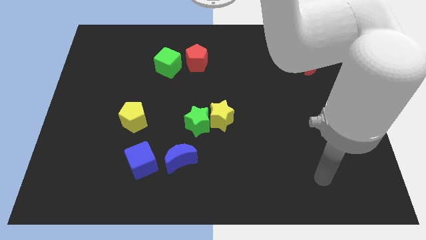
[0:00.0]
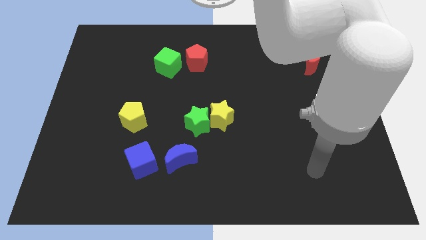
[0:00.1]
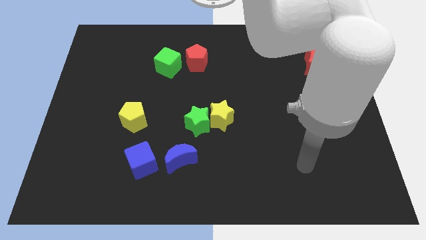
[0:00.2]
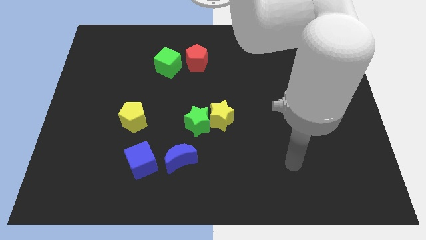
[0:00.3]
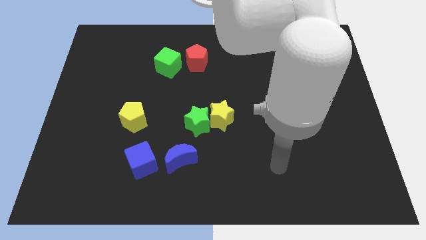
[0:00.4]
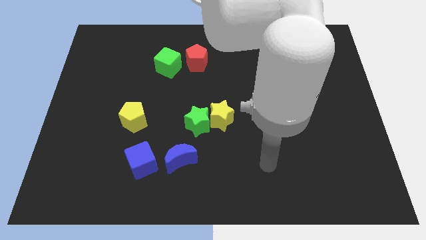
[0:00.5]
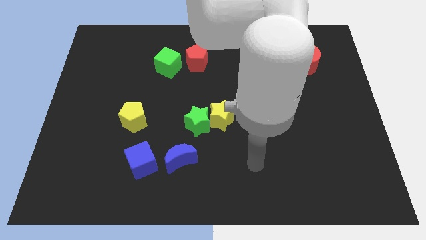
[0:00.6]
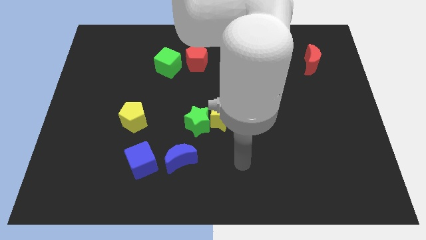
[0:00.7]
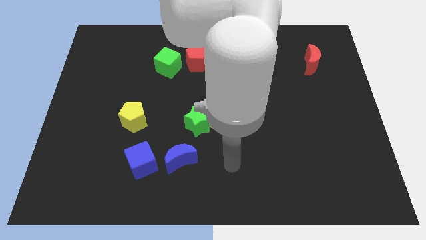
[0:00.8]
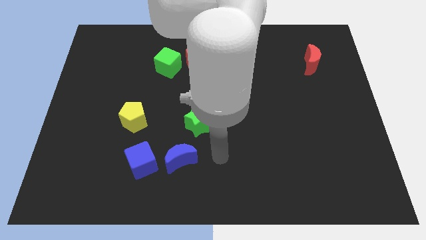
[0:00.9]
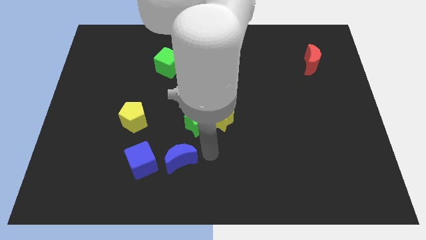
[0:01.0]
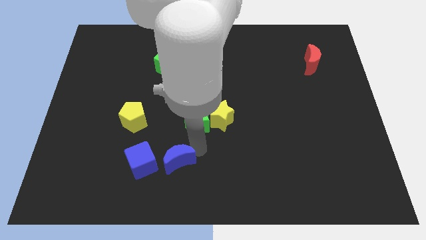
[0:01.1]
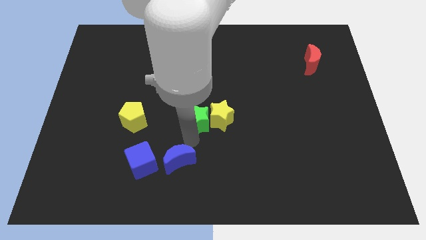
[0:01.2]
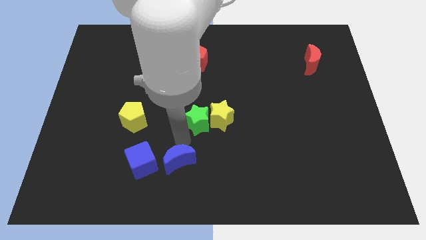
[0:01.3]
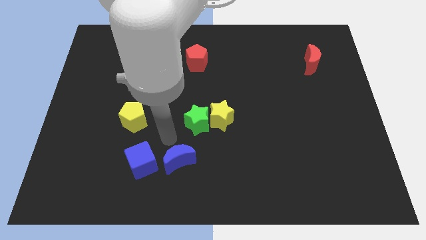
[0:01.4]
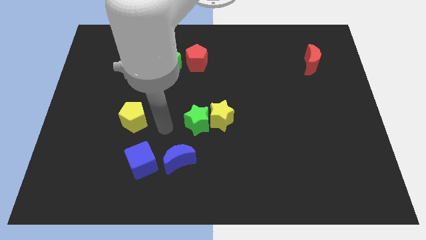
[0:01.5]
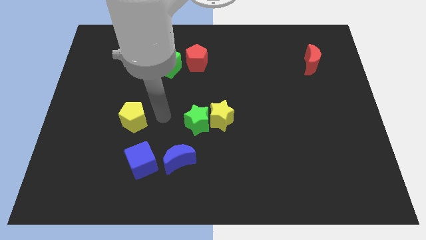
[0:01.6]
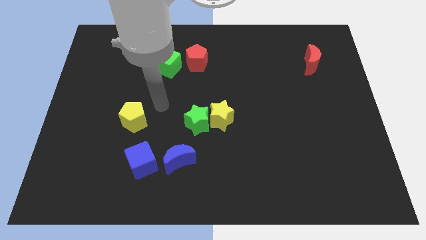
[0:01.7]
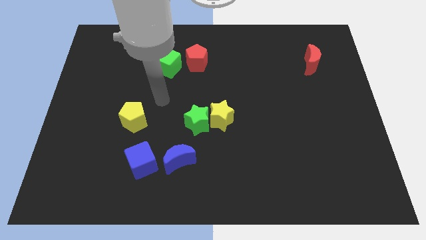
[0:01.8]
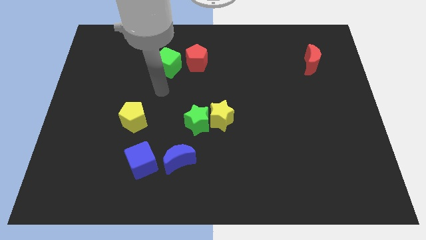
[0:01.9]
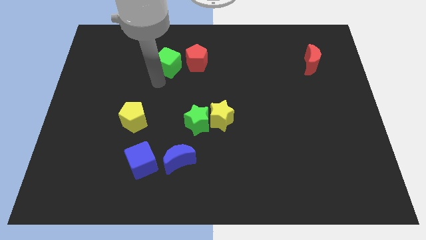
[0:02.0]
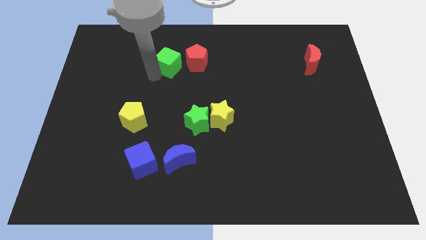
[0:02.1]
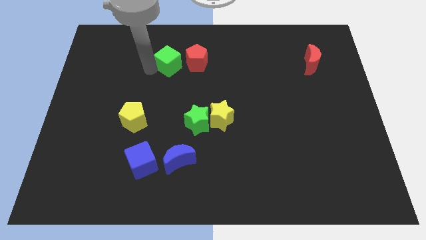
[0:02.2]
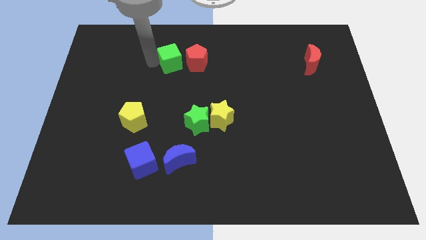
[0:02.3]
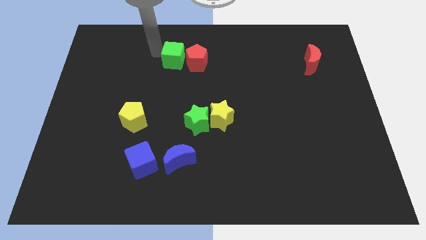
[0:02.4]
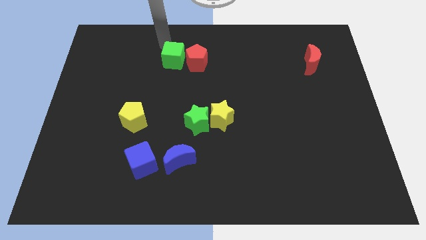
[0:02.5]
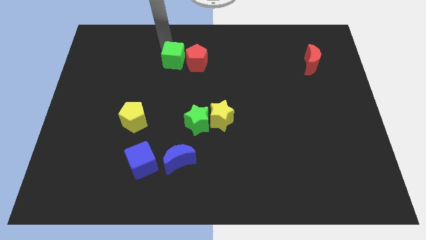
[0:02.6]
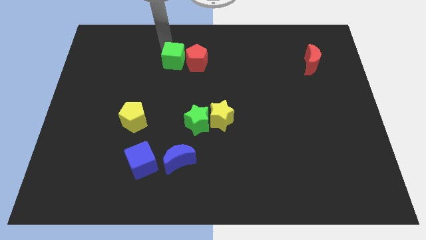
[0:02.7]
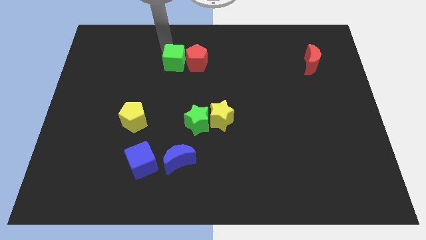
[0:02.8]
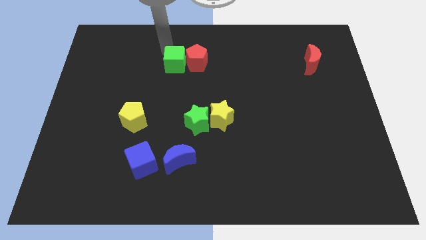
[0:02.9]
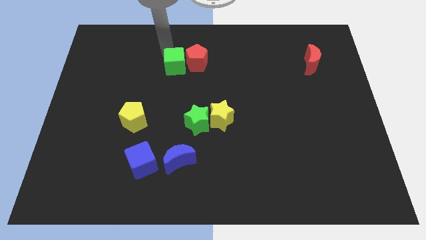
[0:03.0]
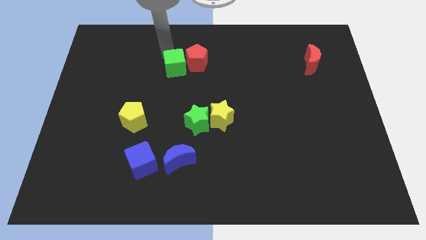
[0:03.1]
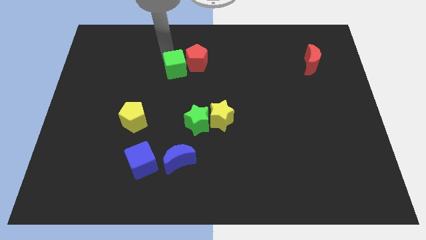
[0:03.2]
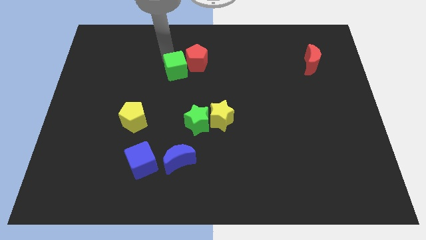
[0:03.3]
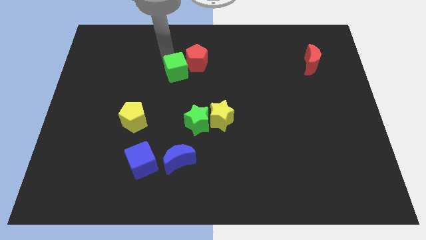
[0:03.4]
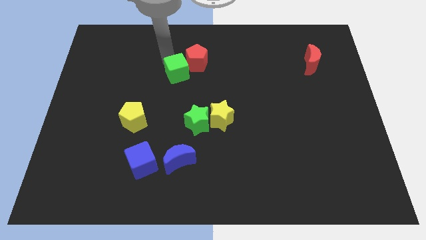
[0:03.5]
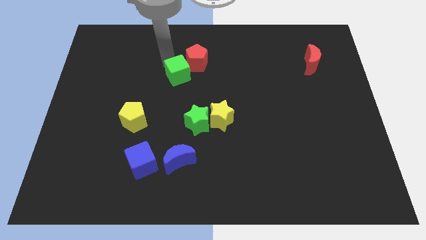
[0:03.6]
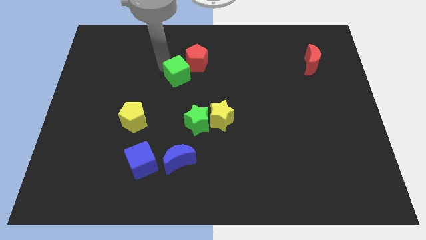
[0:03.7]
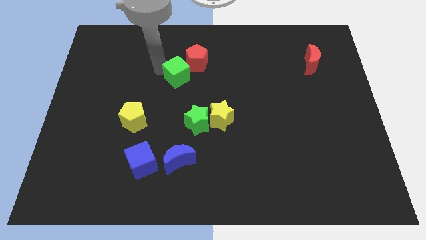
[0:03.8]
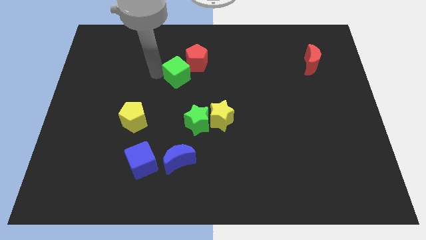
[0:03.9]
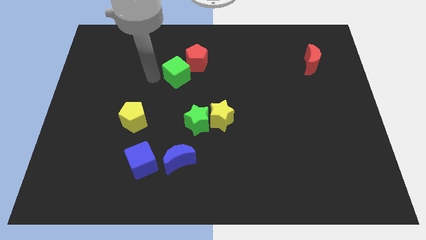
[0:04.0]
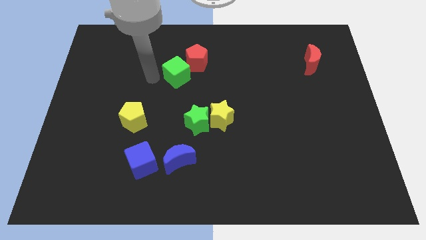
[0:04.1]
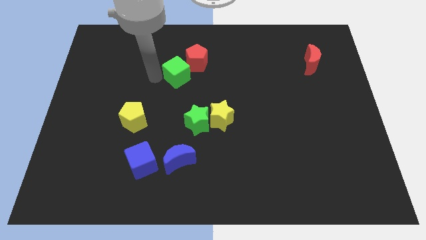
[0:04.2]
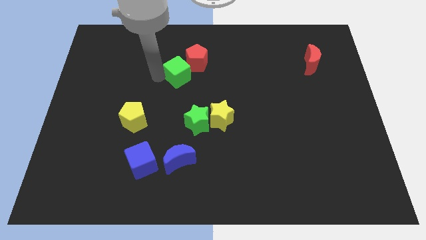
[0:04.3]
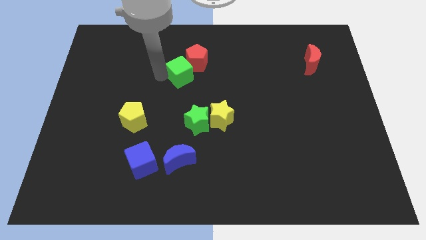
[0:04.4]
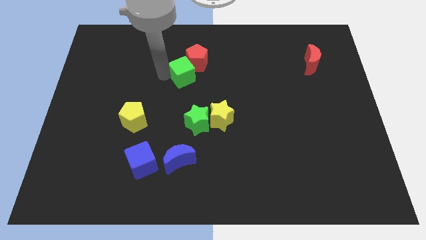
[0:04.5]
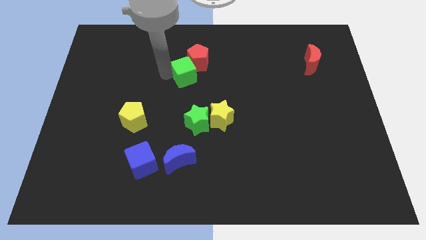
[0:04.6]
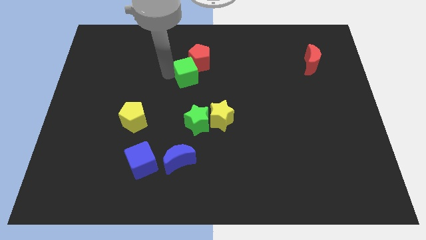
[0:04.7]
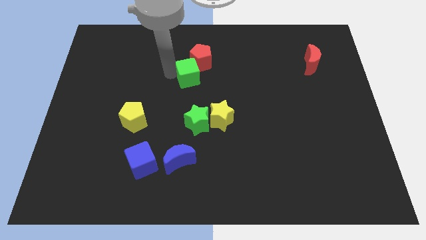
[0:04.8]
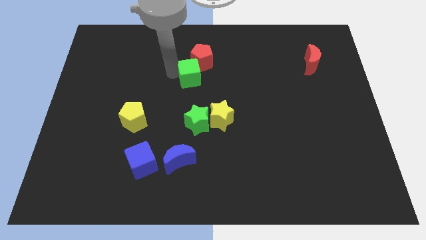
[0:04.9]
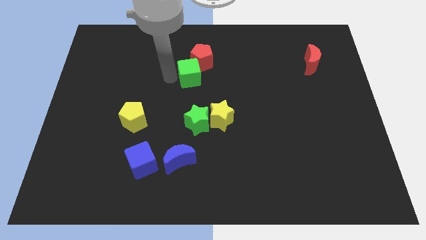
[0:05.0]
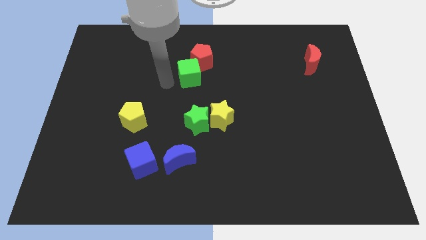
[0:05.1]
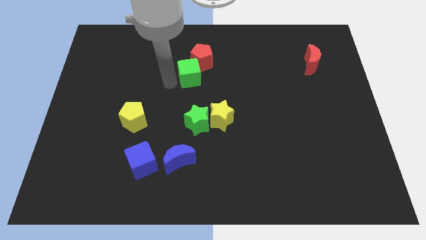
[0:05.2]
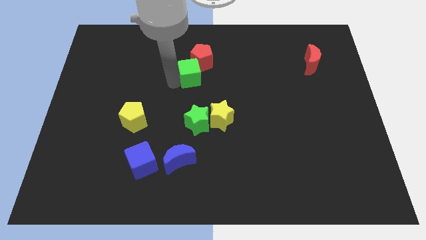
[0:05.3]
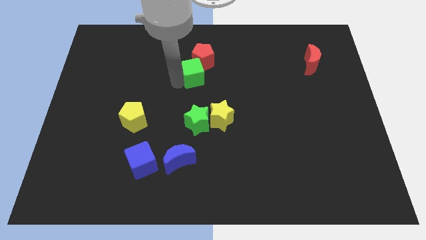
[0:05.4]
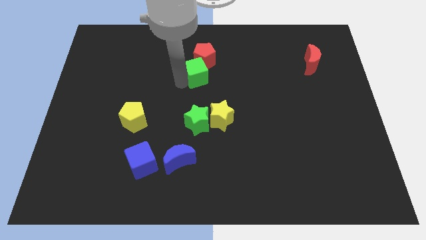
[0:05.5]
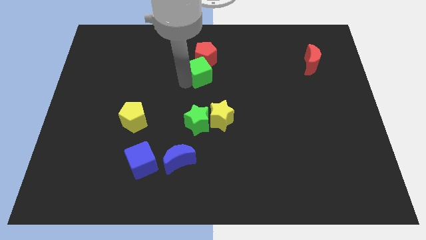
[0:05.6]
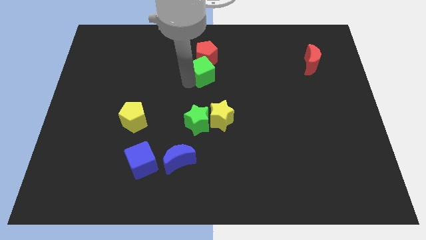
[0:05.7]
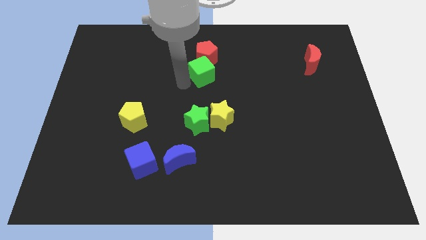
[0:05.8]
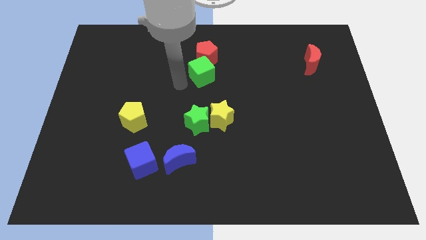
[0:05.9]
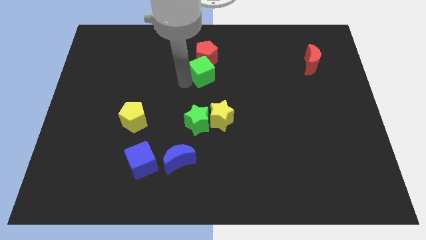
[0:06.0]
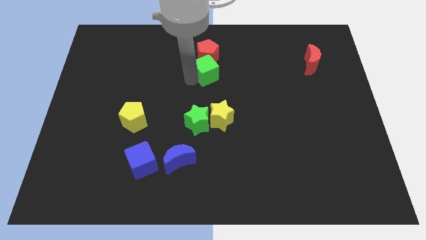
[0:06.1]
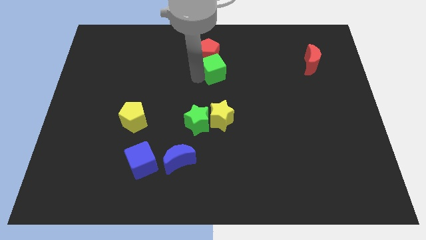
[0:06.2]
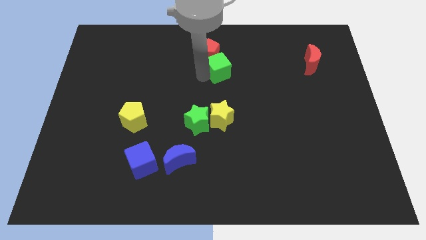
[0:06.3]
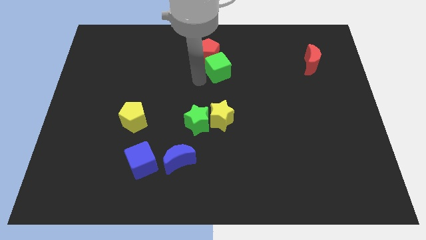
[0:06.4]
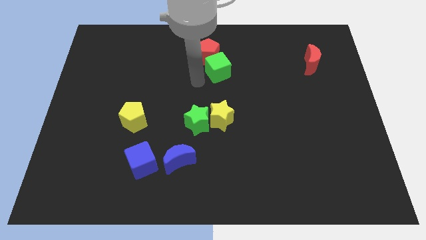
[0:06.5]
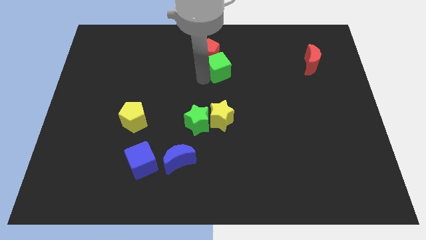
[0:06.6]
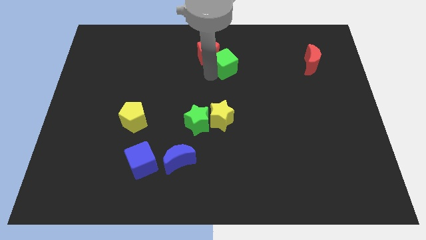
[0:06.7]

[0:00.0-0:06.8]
move the green cube just right of the red pentagon
